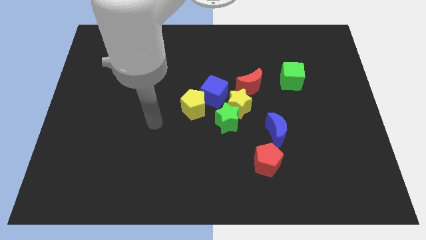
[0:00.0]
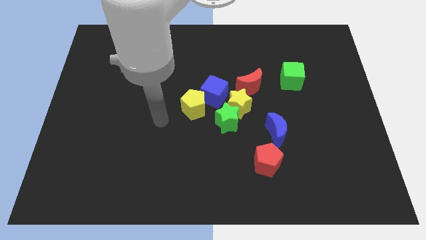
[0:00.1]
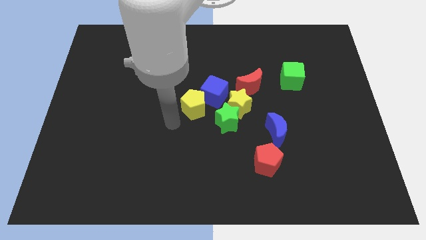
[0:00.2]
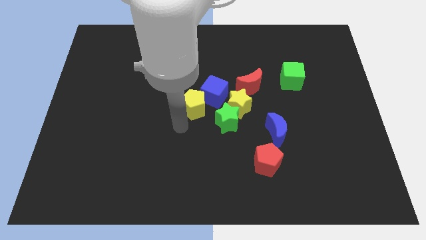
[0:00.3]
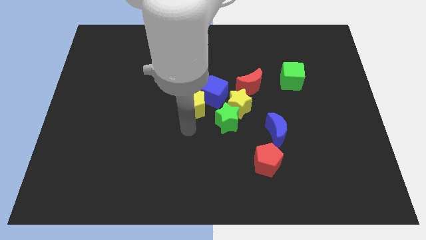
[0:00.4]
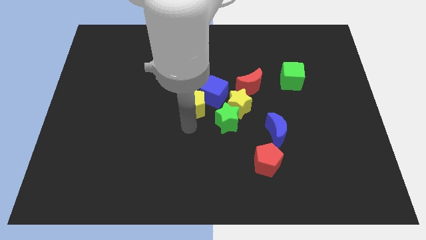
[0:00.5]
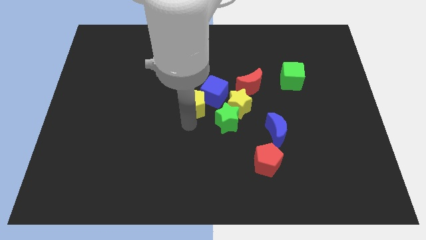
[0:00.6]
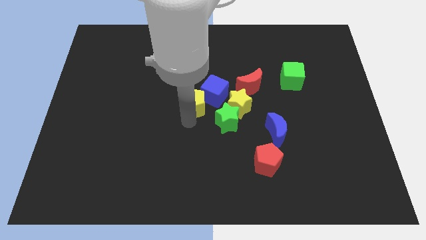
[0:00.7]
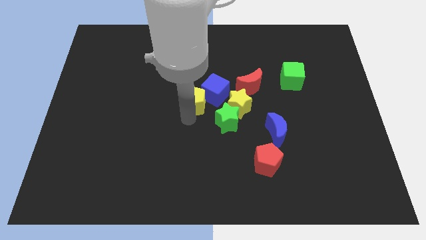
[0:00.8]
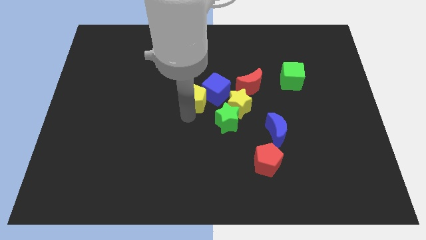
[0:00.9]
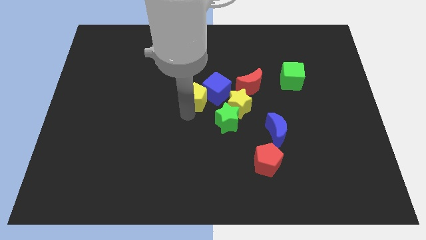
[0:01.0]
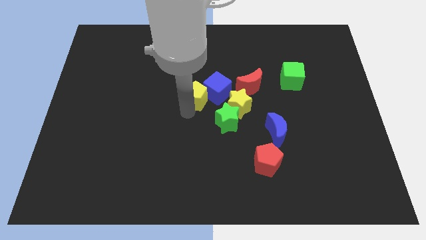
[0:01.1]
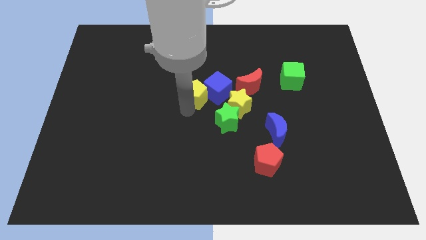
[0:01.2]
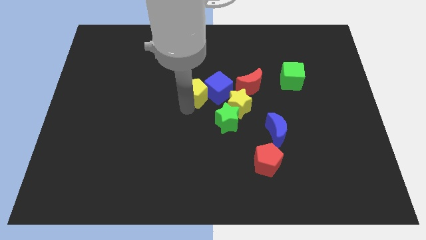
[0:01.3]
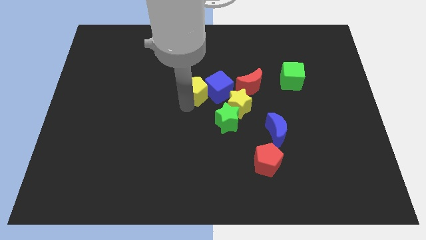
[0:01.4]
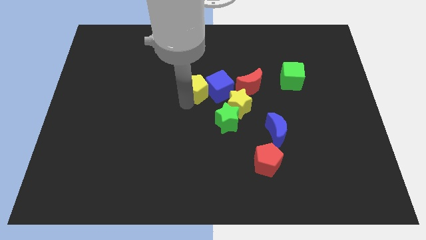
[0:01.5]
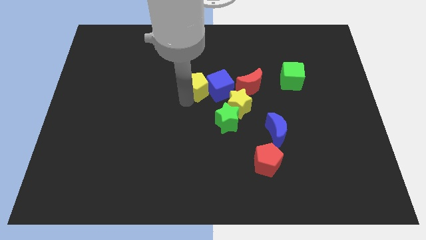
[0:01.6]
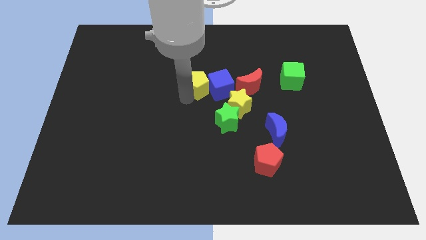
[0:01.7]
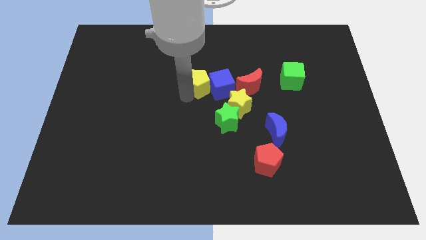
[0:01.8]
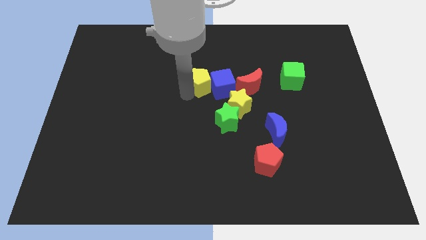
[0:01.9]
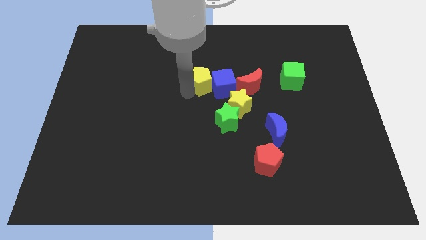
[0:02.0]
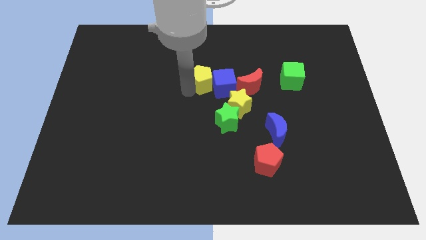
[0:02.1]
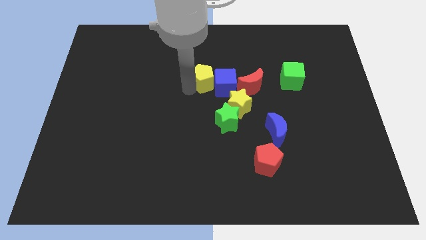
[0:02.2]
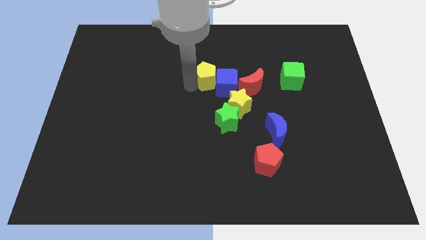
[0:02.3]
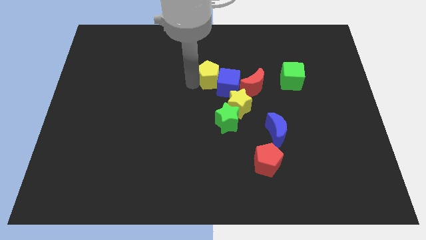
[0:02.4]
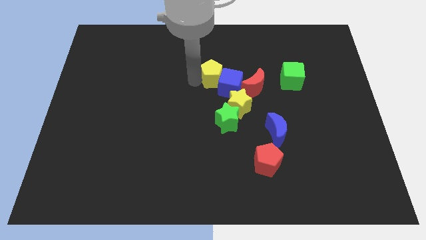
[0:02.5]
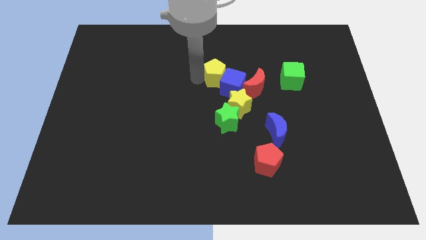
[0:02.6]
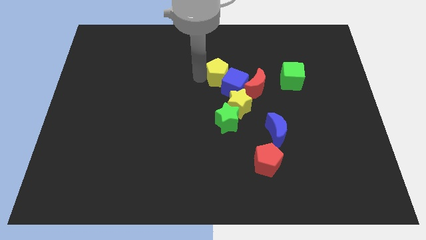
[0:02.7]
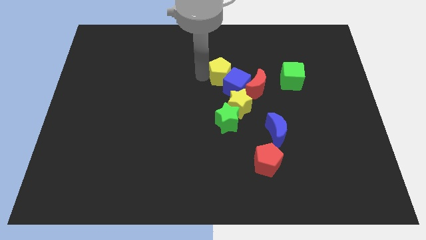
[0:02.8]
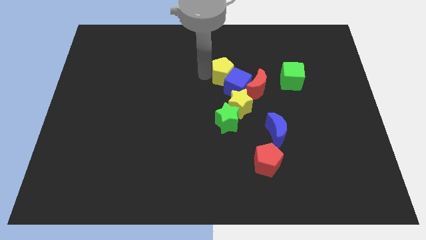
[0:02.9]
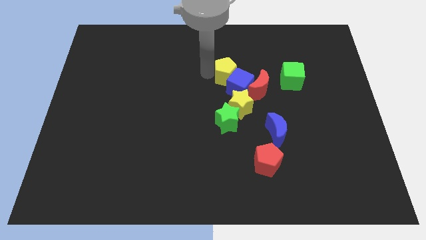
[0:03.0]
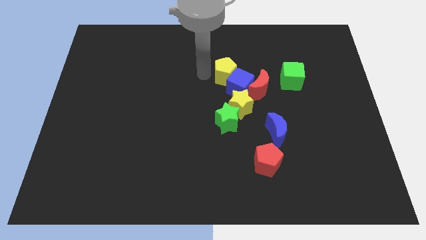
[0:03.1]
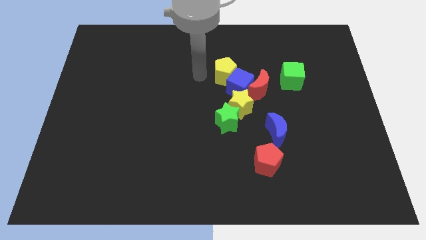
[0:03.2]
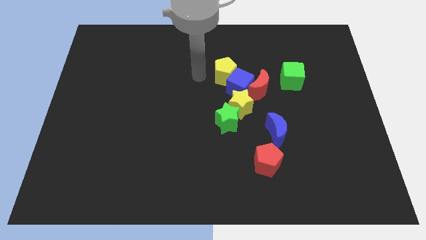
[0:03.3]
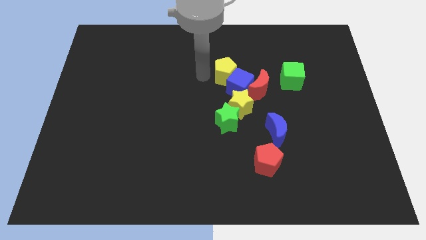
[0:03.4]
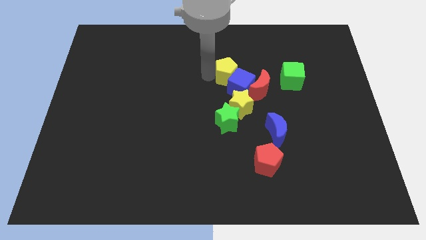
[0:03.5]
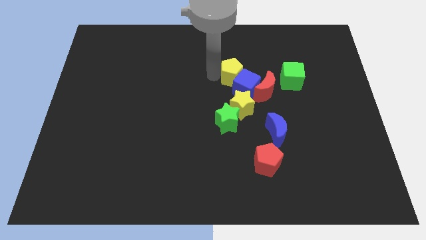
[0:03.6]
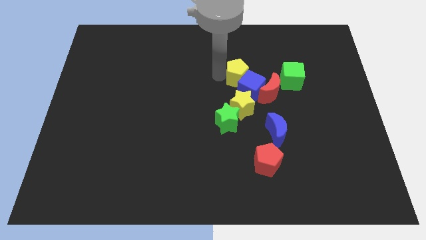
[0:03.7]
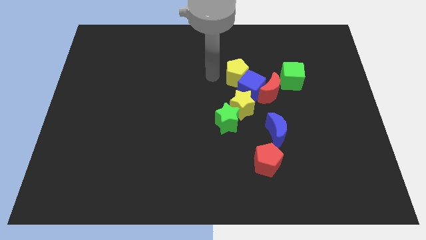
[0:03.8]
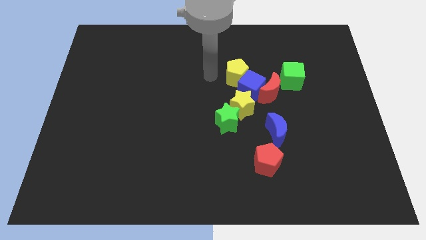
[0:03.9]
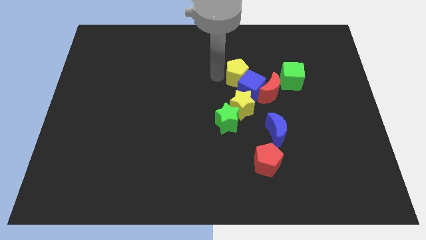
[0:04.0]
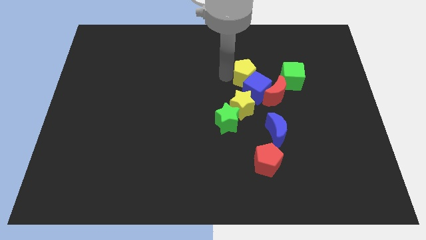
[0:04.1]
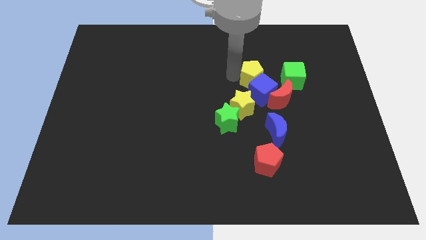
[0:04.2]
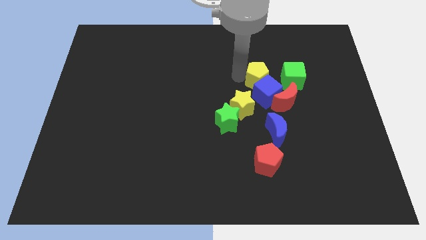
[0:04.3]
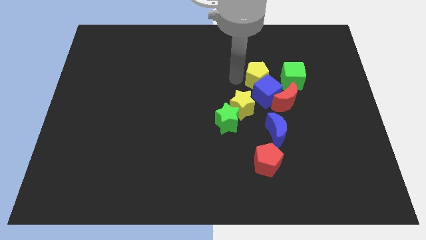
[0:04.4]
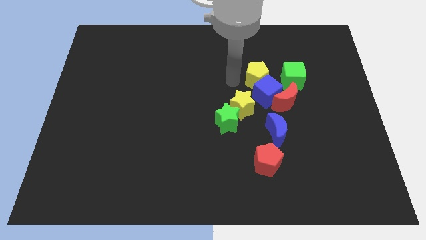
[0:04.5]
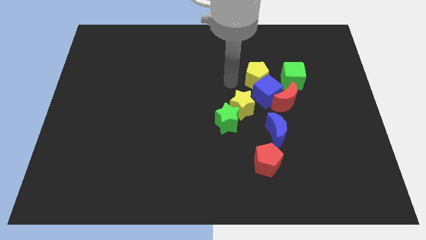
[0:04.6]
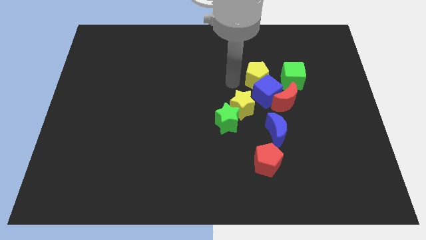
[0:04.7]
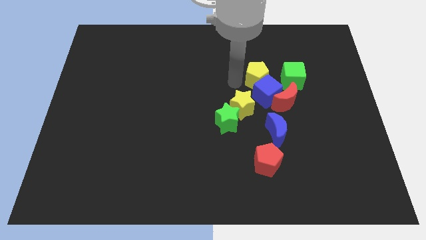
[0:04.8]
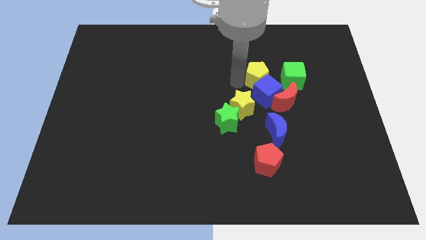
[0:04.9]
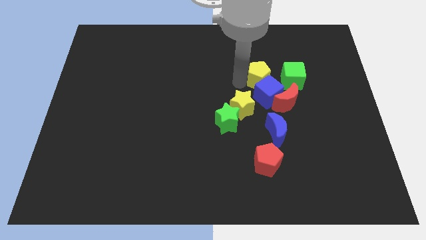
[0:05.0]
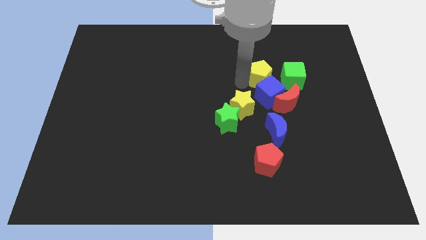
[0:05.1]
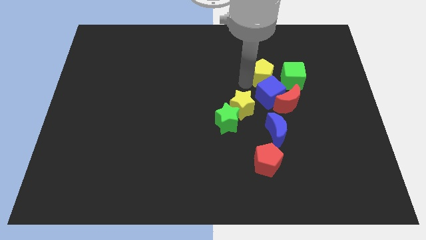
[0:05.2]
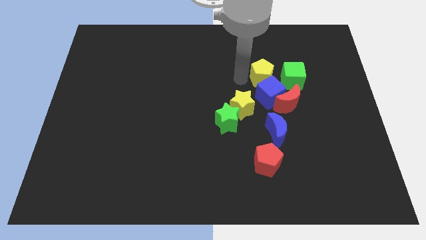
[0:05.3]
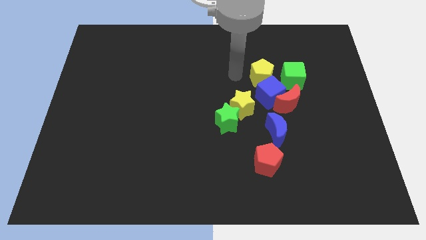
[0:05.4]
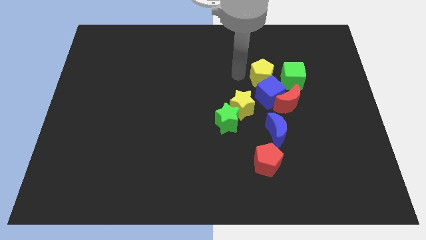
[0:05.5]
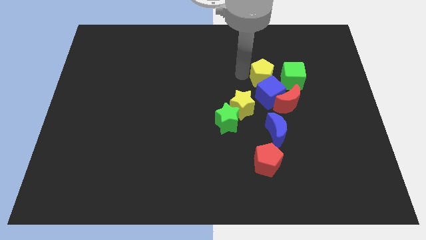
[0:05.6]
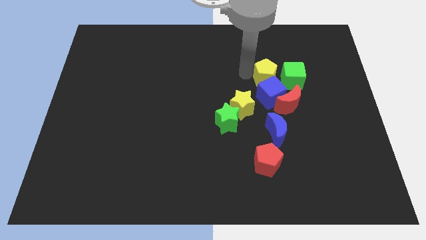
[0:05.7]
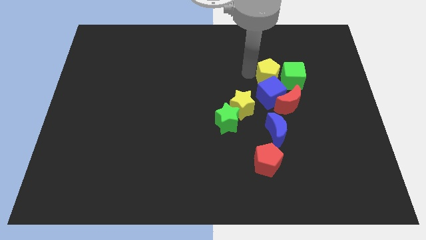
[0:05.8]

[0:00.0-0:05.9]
push the yellow pentagon next to the green cube

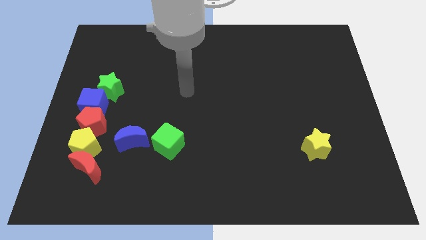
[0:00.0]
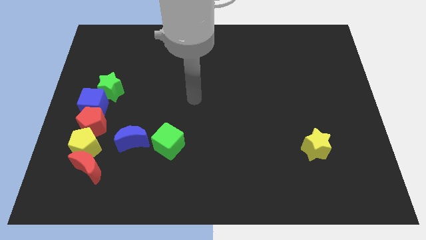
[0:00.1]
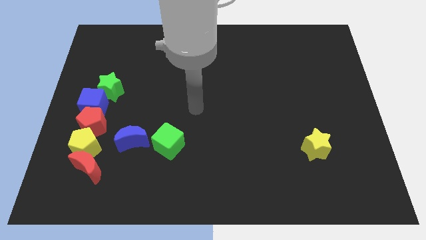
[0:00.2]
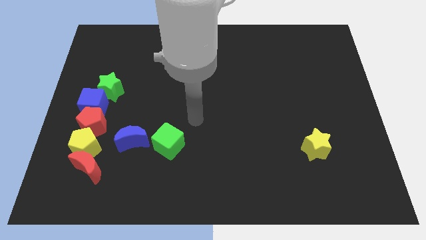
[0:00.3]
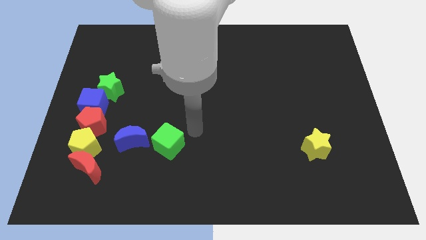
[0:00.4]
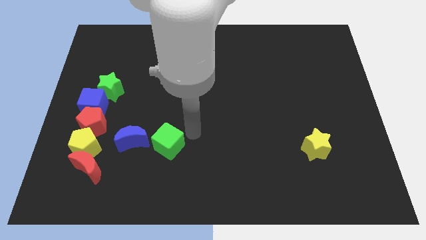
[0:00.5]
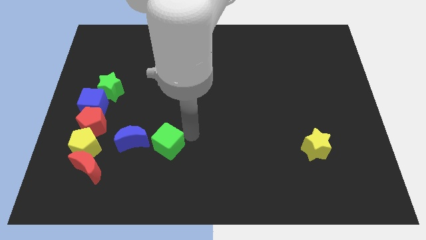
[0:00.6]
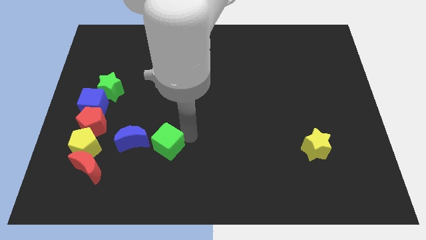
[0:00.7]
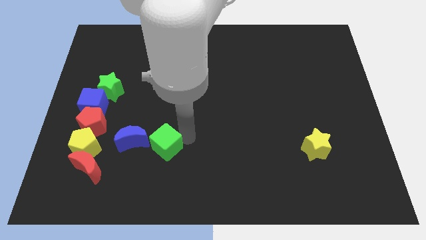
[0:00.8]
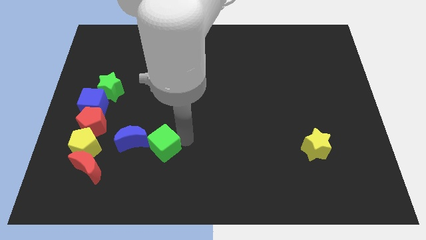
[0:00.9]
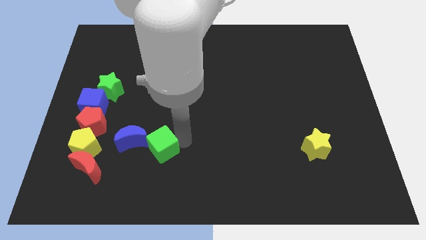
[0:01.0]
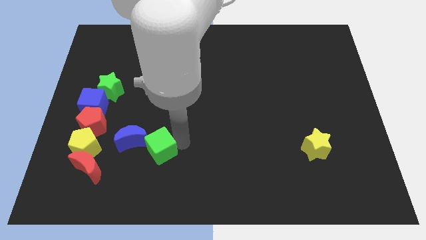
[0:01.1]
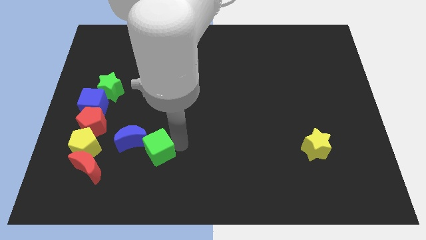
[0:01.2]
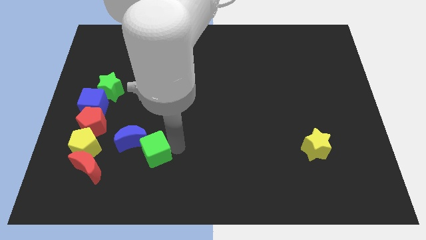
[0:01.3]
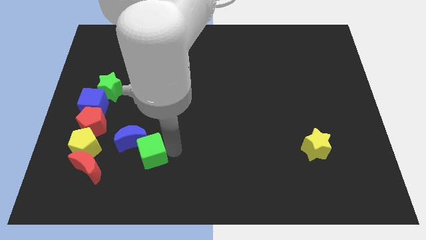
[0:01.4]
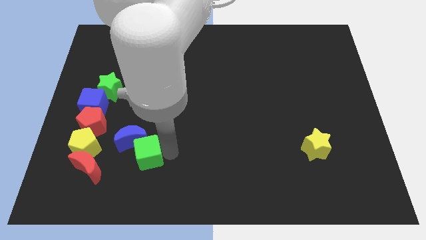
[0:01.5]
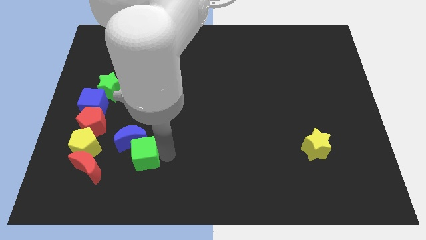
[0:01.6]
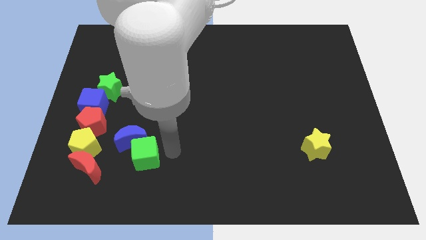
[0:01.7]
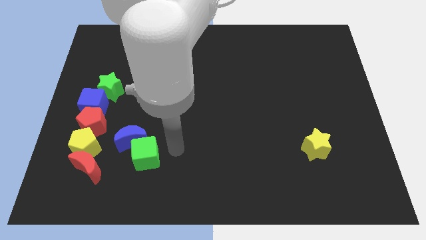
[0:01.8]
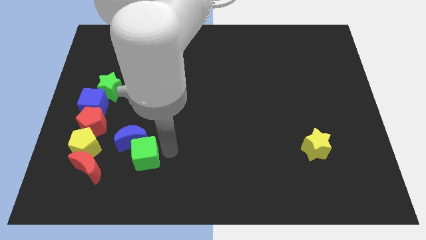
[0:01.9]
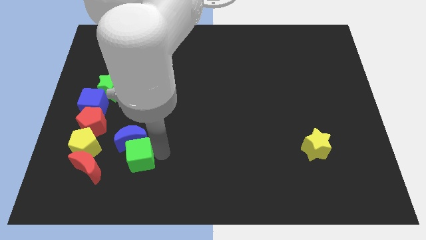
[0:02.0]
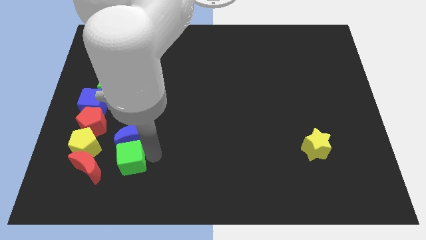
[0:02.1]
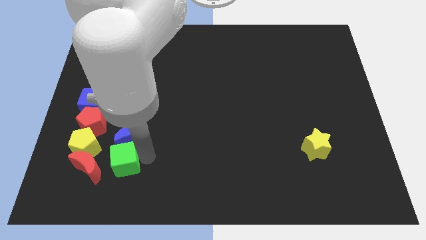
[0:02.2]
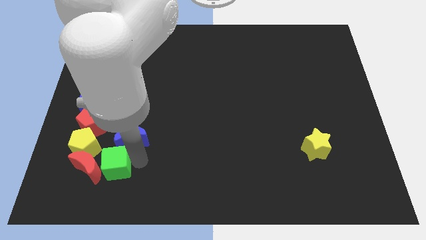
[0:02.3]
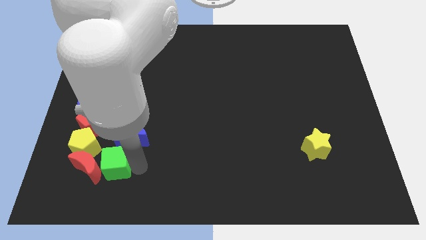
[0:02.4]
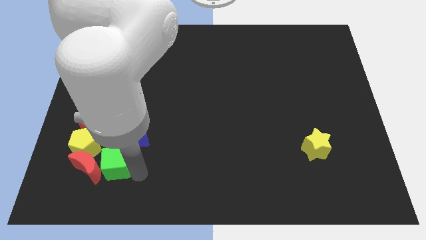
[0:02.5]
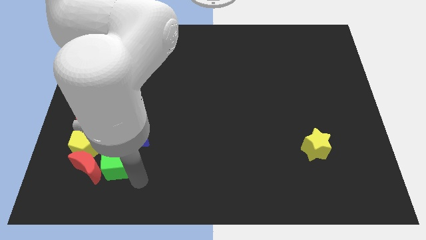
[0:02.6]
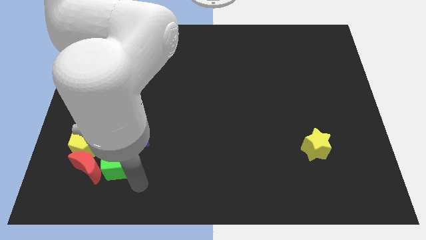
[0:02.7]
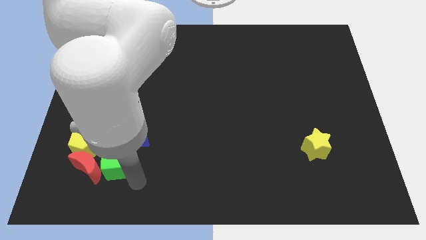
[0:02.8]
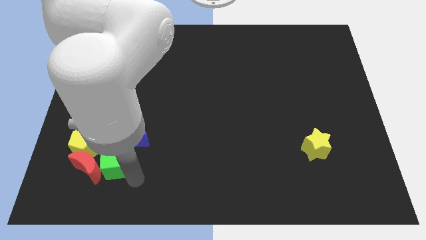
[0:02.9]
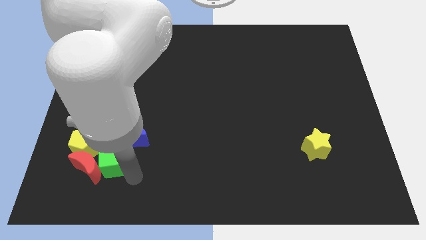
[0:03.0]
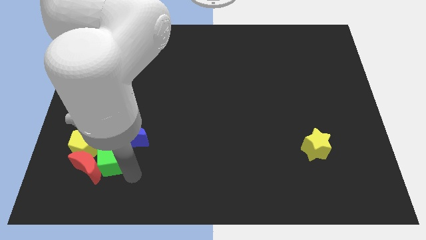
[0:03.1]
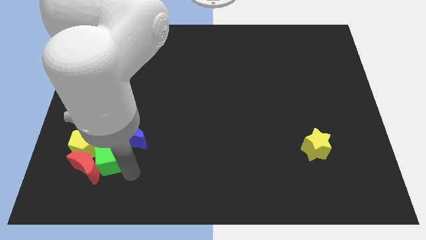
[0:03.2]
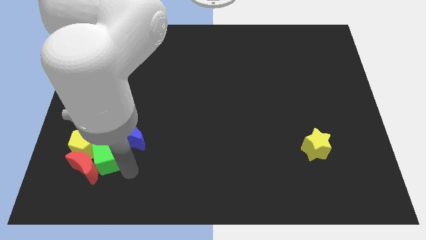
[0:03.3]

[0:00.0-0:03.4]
move the green cube next to the yellow pentagon
